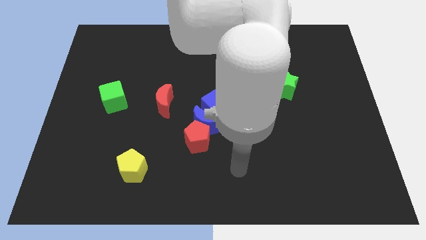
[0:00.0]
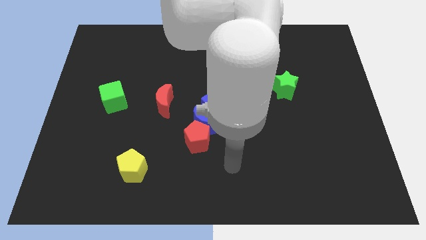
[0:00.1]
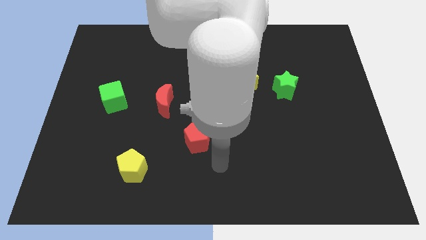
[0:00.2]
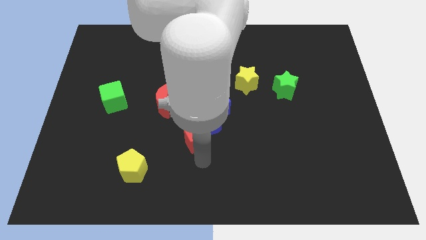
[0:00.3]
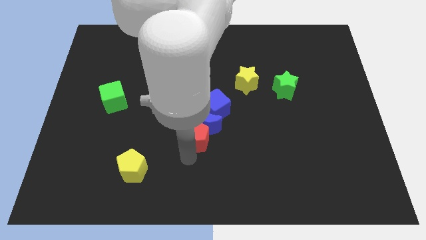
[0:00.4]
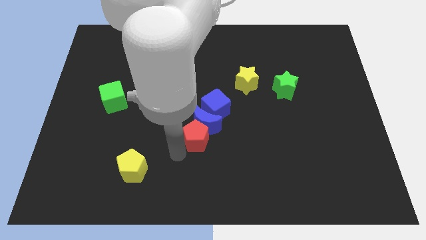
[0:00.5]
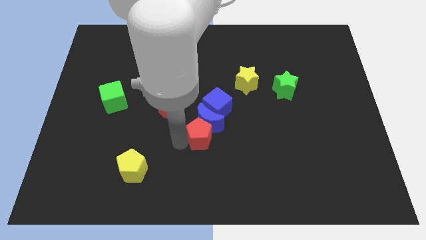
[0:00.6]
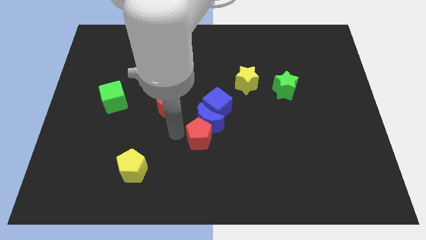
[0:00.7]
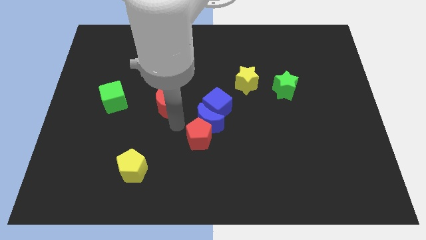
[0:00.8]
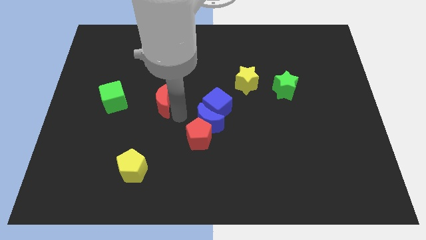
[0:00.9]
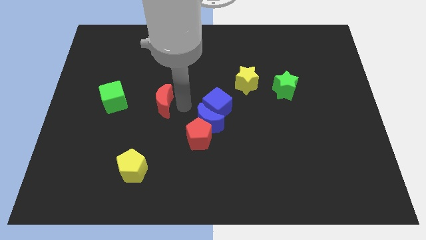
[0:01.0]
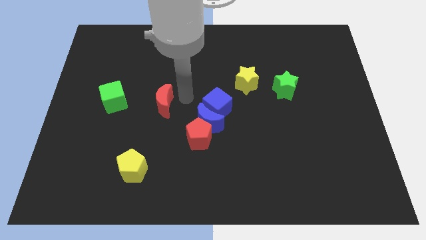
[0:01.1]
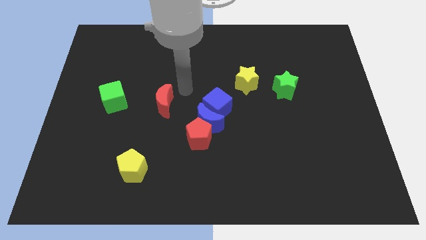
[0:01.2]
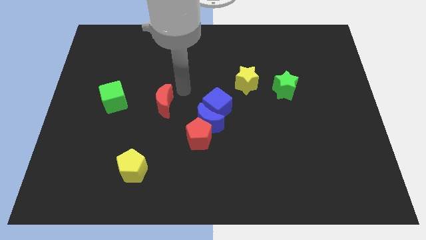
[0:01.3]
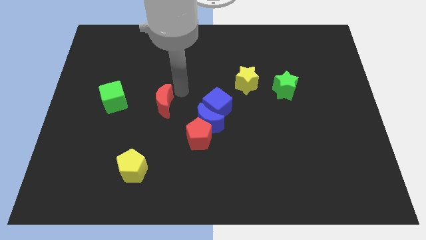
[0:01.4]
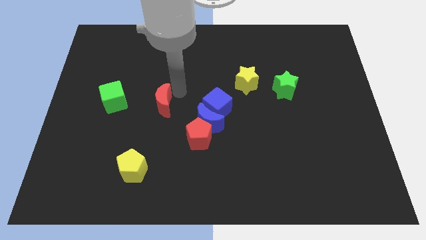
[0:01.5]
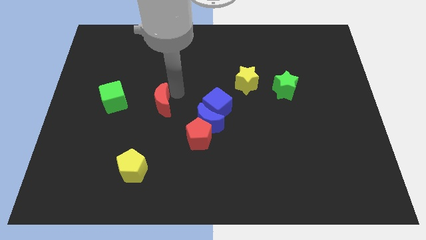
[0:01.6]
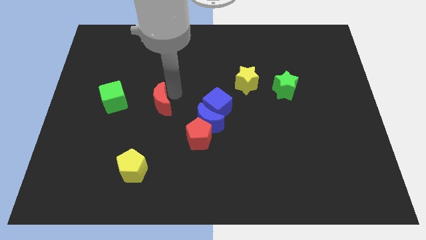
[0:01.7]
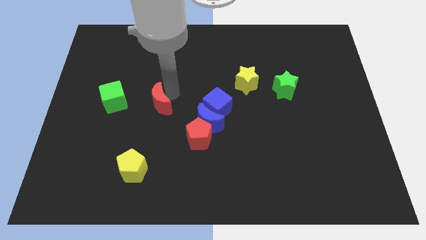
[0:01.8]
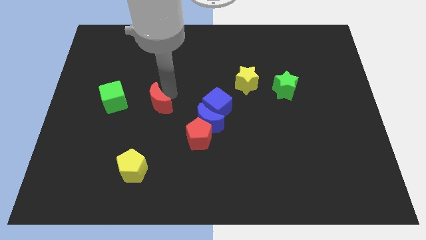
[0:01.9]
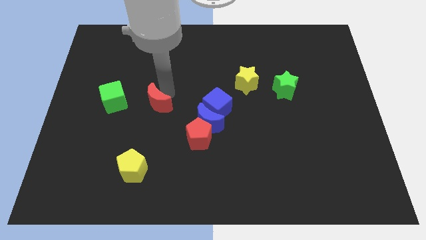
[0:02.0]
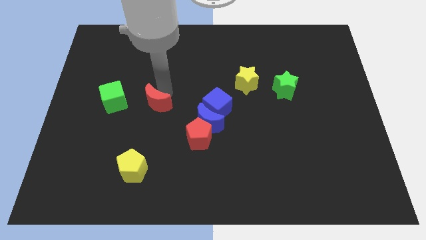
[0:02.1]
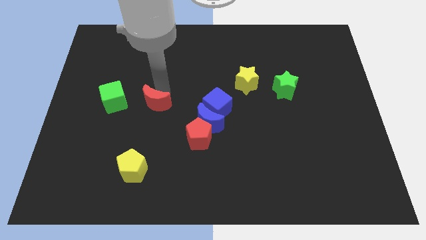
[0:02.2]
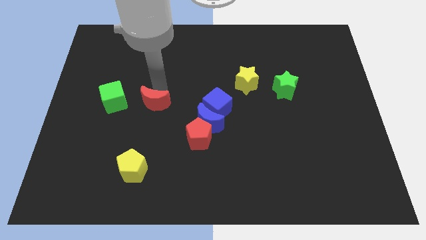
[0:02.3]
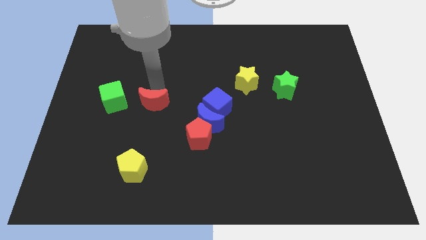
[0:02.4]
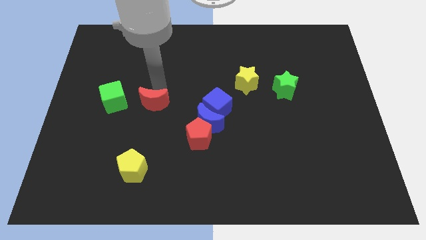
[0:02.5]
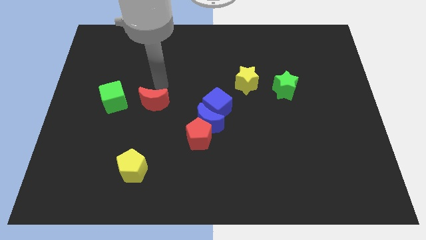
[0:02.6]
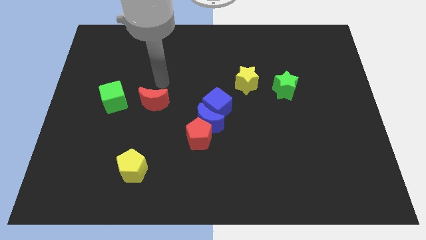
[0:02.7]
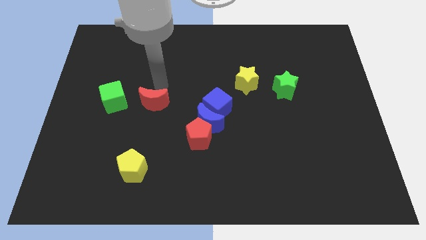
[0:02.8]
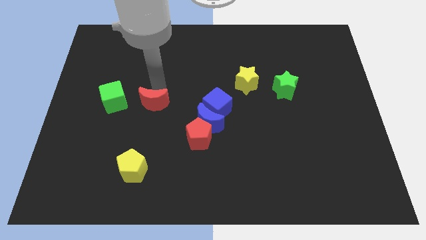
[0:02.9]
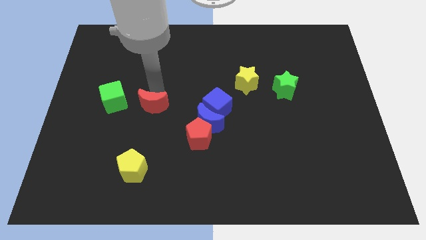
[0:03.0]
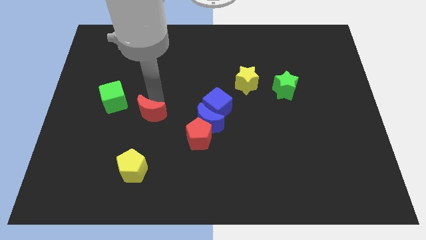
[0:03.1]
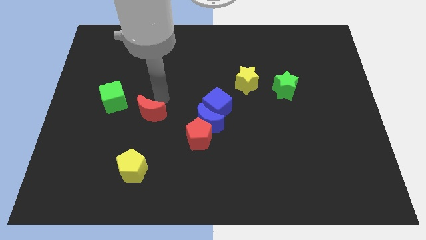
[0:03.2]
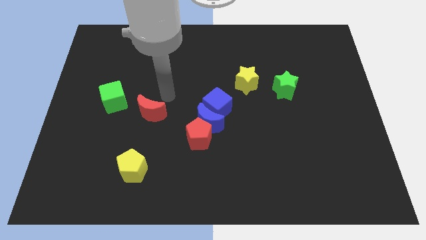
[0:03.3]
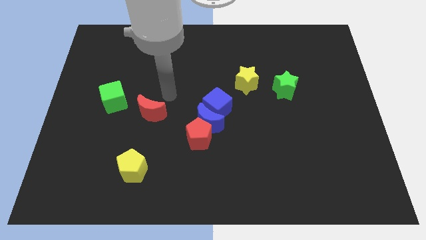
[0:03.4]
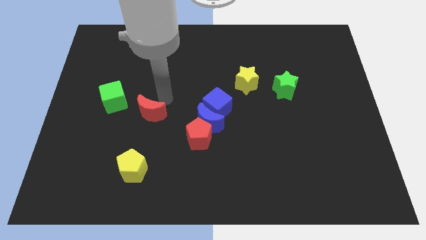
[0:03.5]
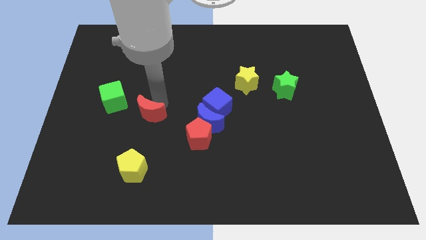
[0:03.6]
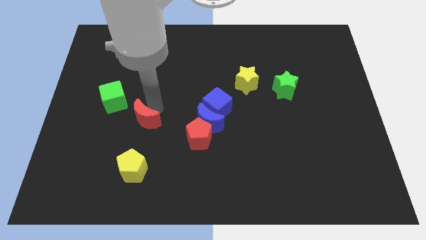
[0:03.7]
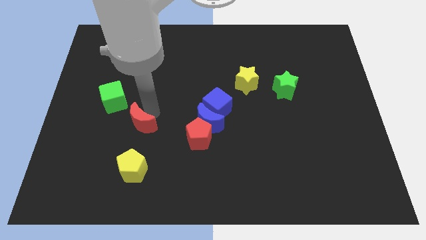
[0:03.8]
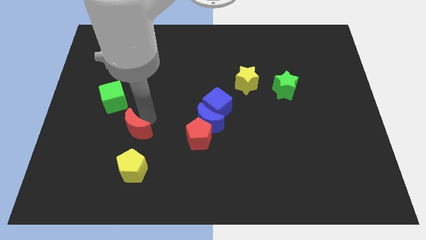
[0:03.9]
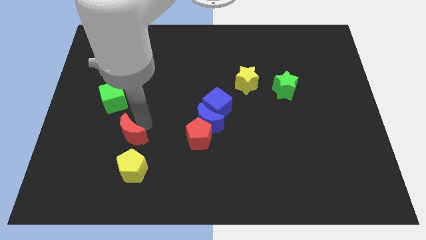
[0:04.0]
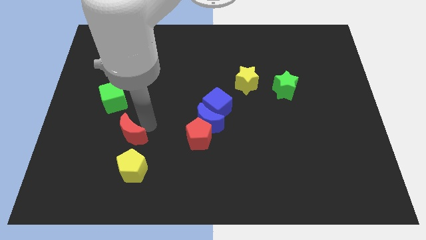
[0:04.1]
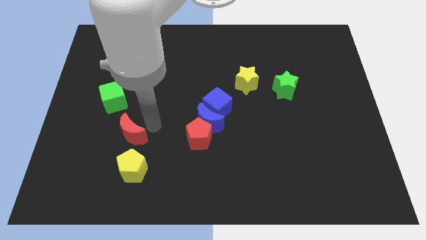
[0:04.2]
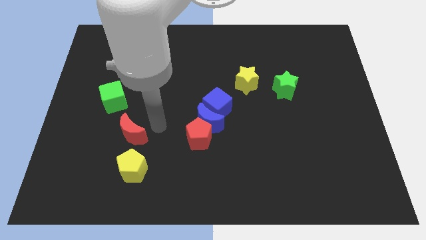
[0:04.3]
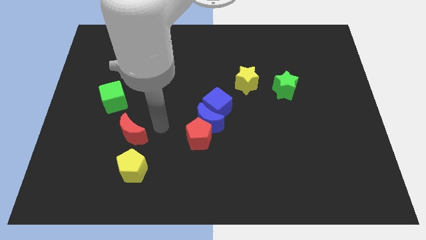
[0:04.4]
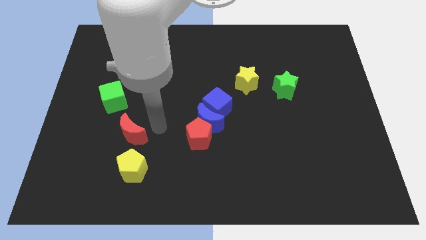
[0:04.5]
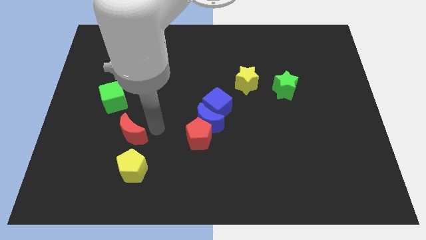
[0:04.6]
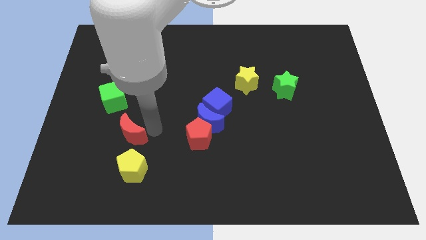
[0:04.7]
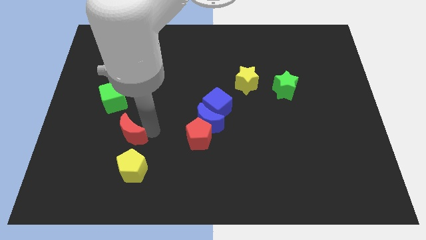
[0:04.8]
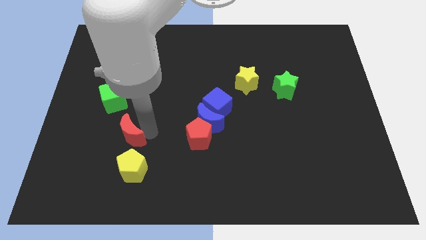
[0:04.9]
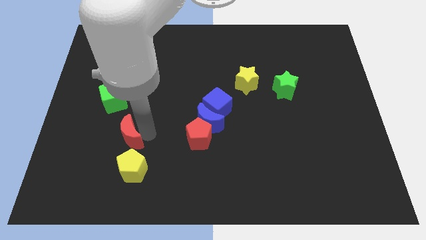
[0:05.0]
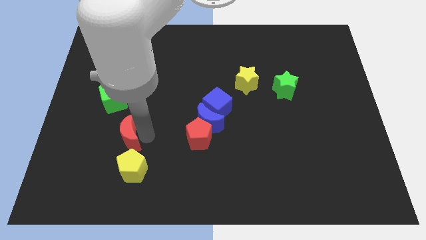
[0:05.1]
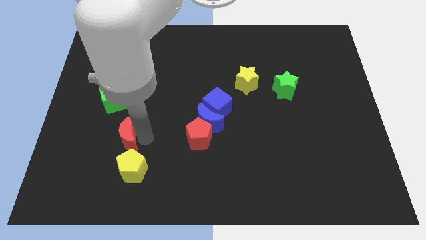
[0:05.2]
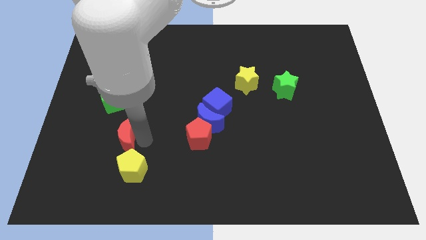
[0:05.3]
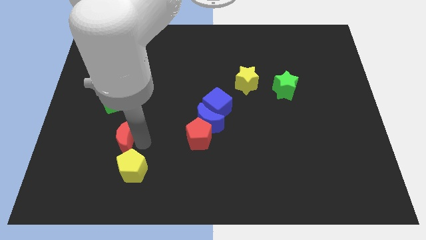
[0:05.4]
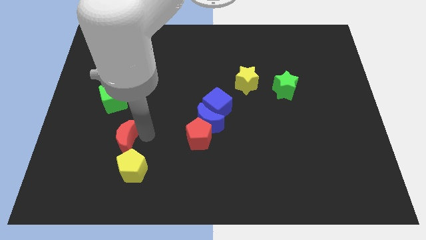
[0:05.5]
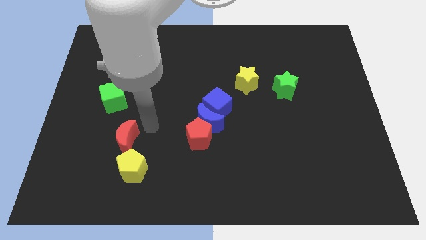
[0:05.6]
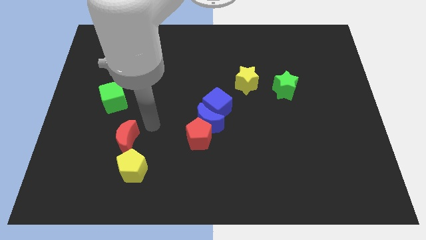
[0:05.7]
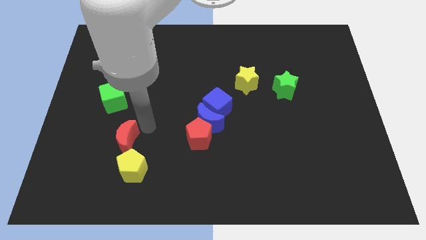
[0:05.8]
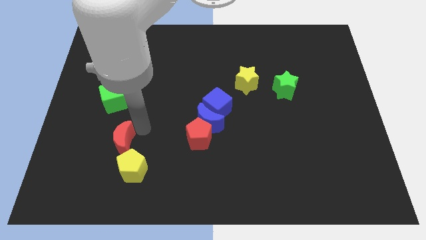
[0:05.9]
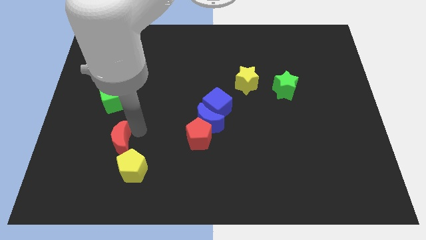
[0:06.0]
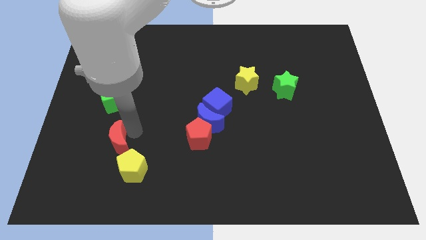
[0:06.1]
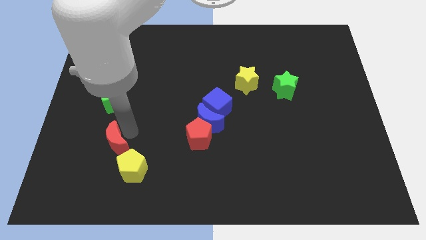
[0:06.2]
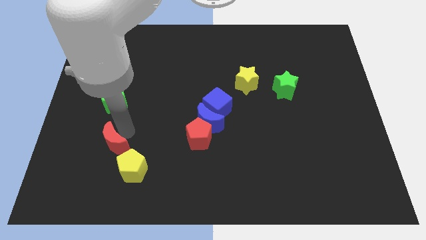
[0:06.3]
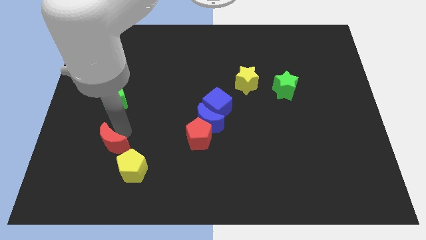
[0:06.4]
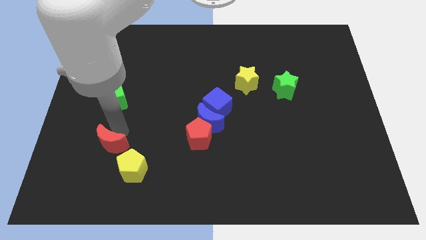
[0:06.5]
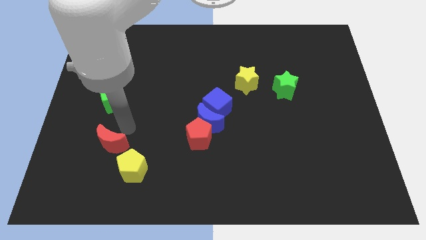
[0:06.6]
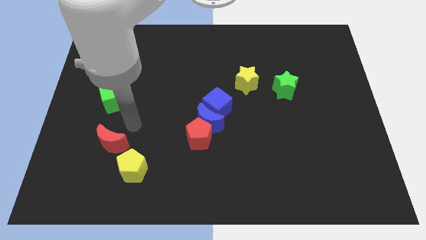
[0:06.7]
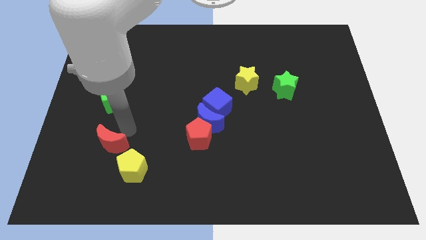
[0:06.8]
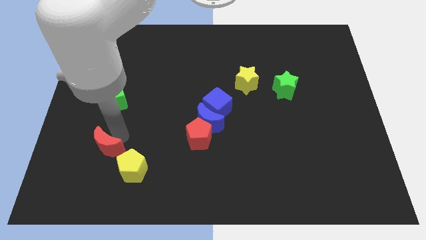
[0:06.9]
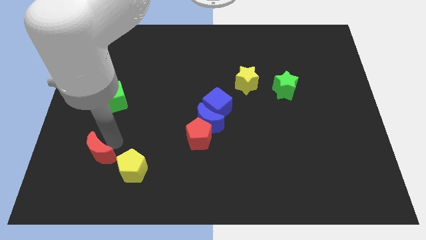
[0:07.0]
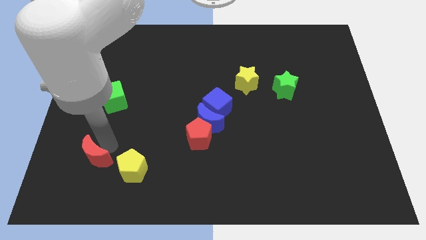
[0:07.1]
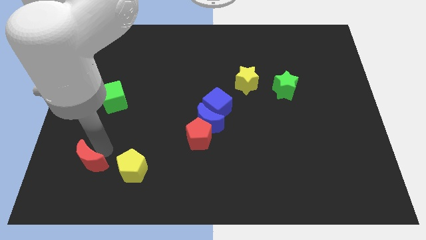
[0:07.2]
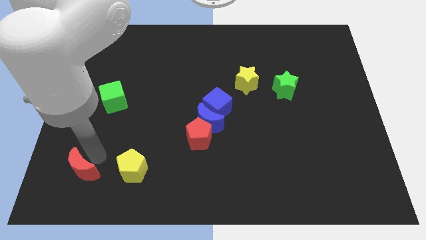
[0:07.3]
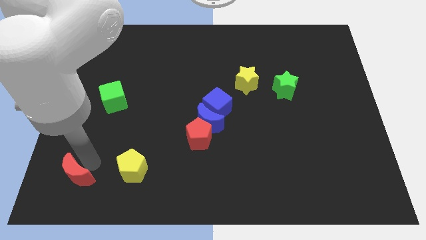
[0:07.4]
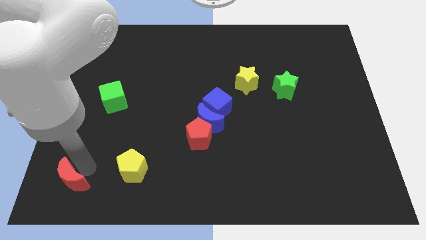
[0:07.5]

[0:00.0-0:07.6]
slide the red moon to the bottom left
